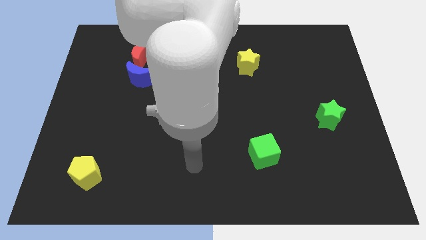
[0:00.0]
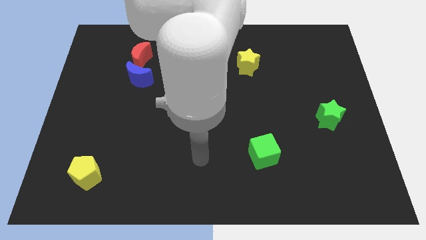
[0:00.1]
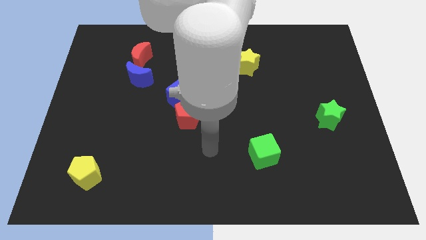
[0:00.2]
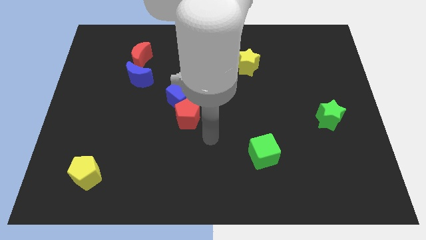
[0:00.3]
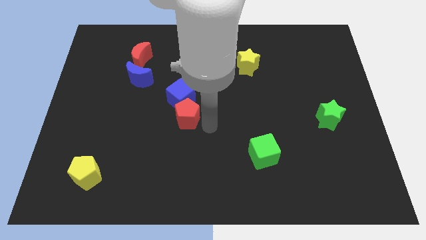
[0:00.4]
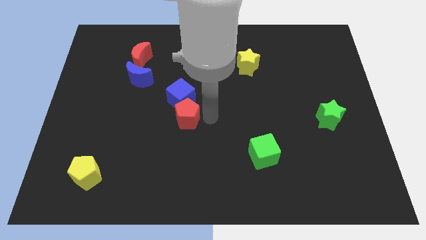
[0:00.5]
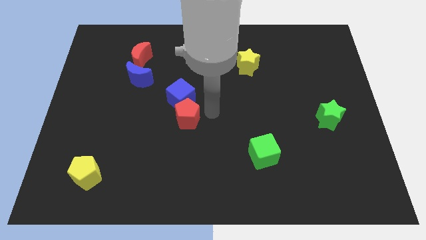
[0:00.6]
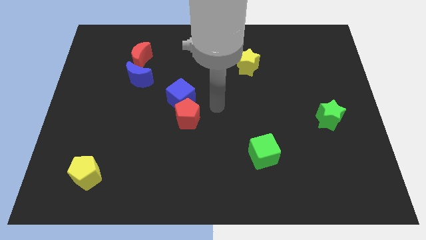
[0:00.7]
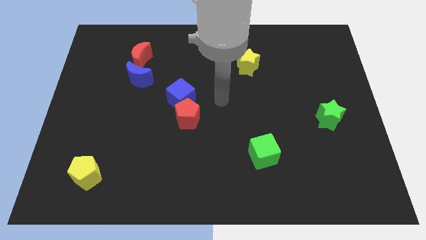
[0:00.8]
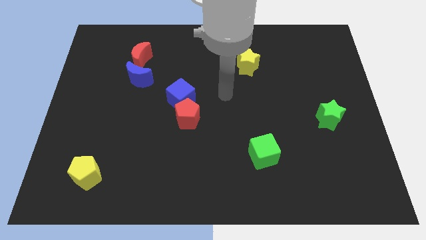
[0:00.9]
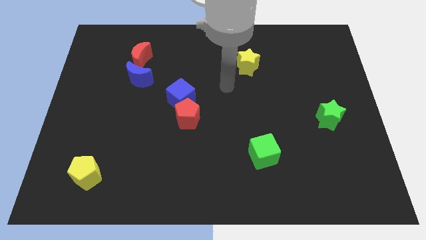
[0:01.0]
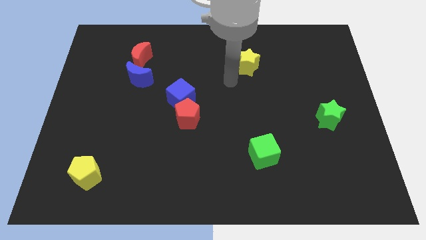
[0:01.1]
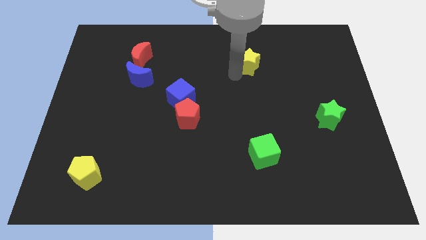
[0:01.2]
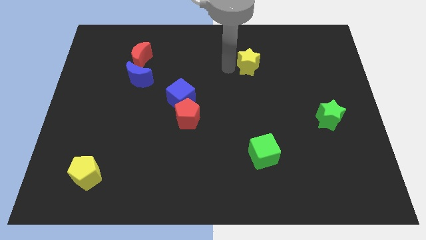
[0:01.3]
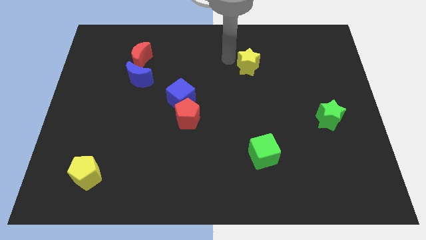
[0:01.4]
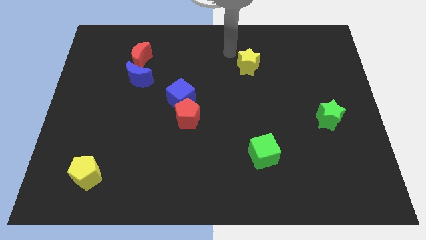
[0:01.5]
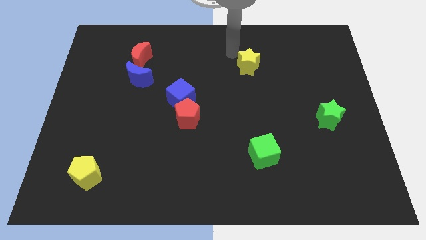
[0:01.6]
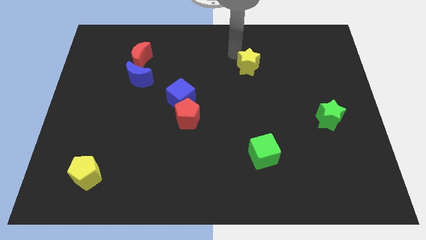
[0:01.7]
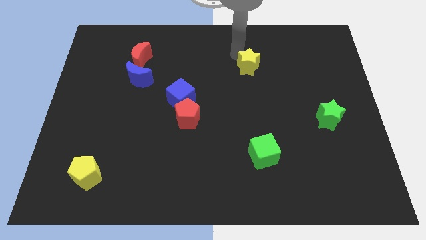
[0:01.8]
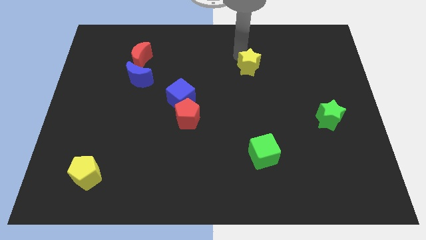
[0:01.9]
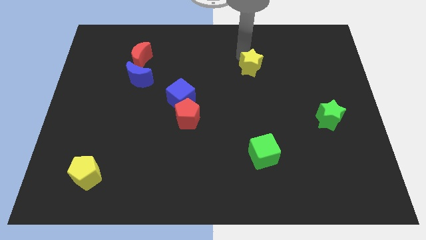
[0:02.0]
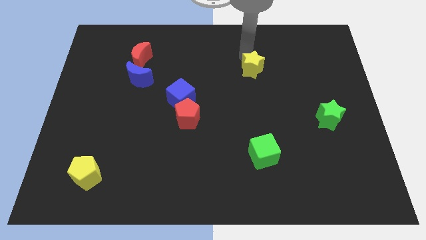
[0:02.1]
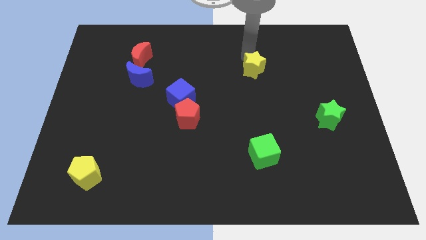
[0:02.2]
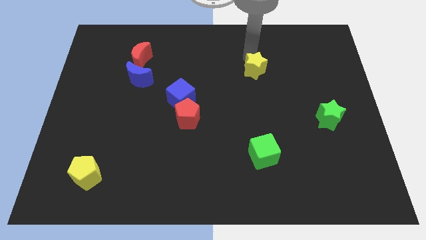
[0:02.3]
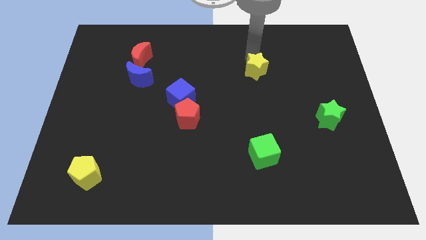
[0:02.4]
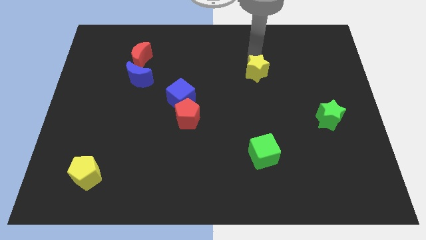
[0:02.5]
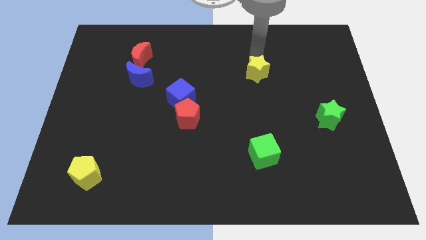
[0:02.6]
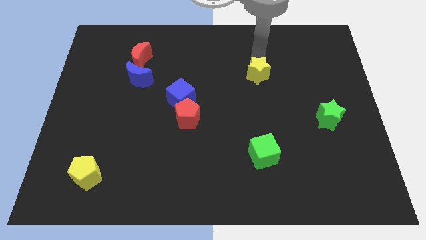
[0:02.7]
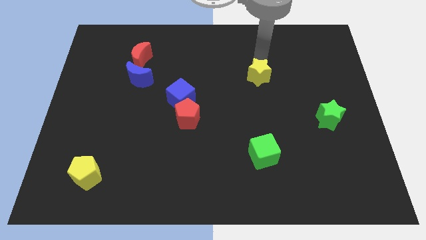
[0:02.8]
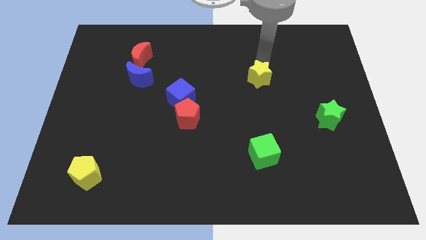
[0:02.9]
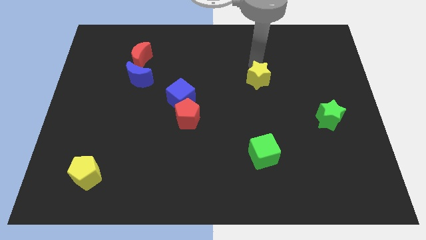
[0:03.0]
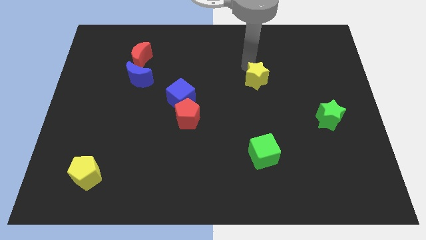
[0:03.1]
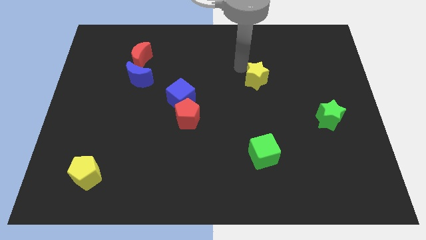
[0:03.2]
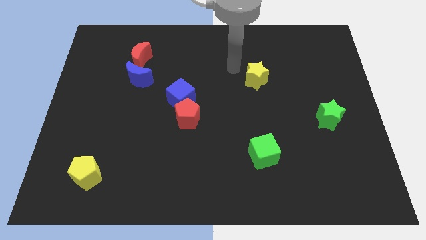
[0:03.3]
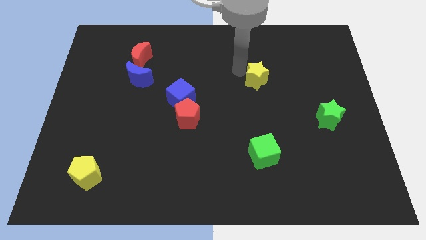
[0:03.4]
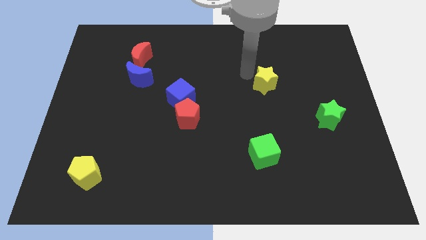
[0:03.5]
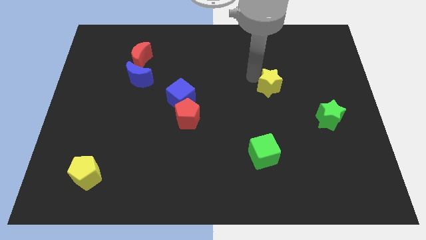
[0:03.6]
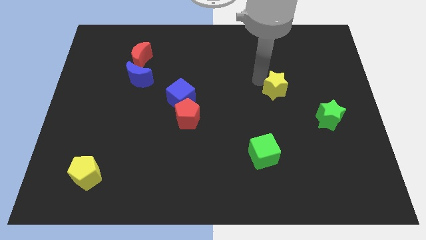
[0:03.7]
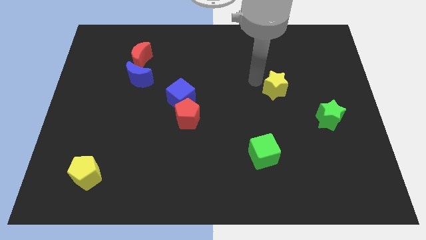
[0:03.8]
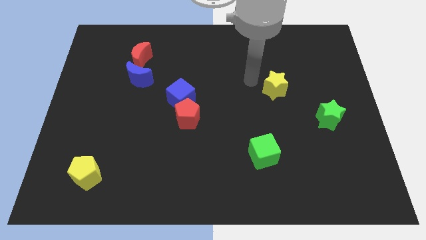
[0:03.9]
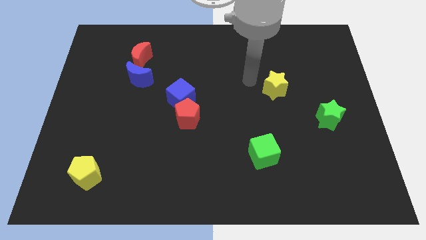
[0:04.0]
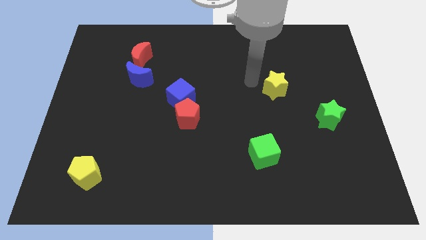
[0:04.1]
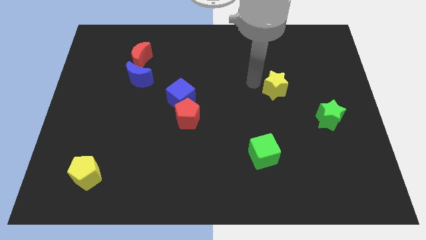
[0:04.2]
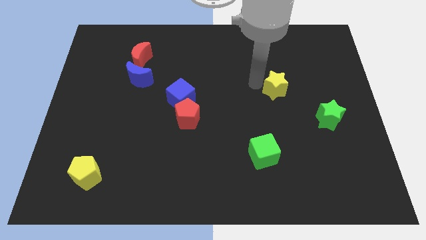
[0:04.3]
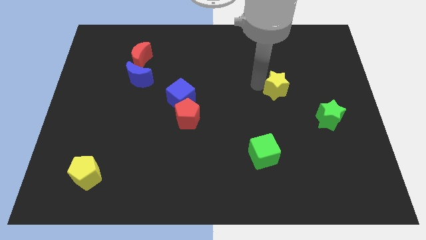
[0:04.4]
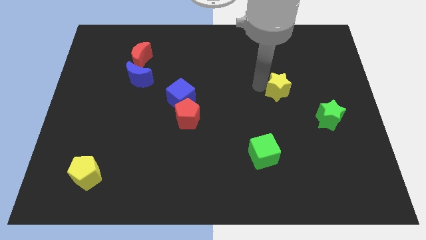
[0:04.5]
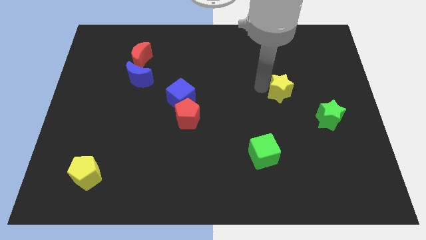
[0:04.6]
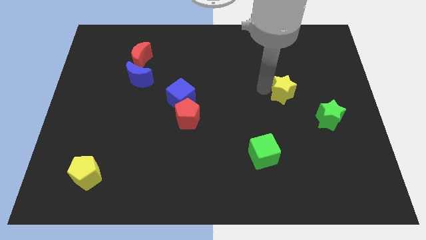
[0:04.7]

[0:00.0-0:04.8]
move the yellow star diagonally up and to the left of the green star

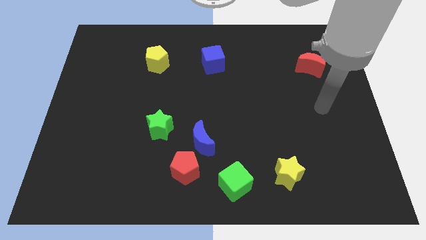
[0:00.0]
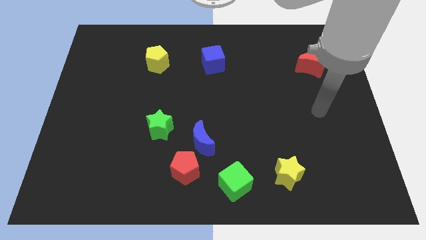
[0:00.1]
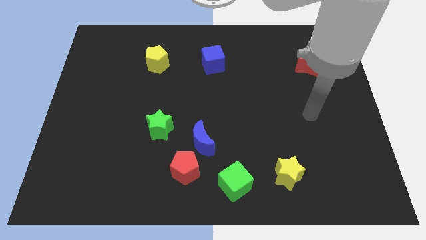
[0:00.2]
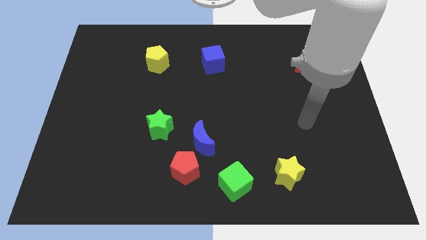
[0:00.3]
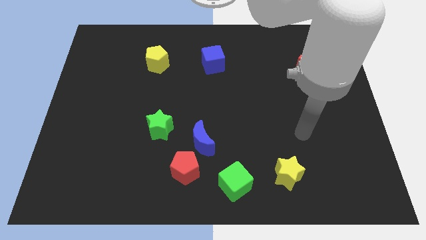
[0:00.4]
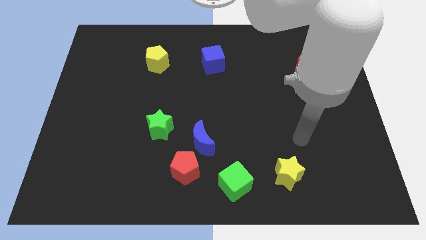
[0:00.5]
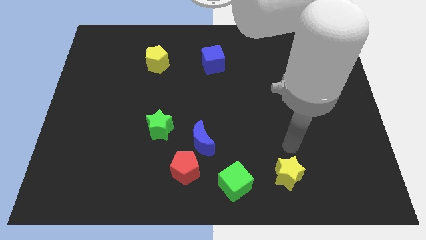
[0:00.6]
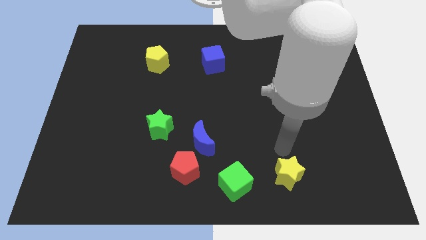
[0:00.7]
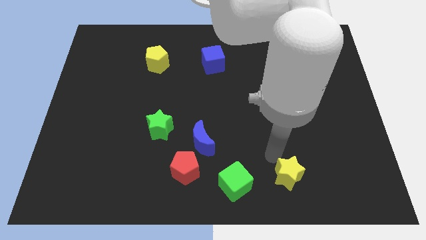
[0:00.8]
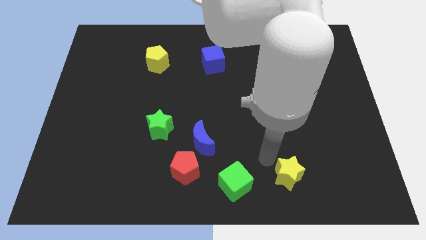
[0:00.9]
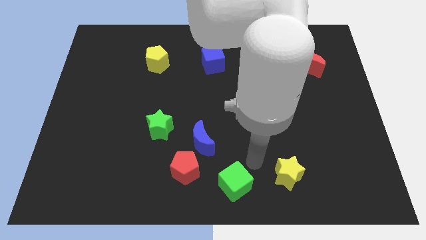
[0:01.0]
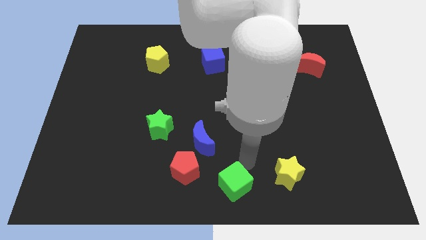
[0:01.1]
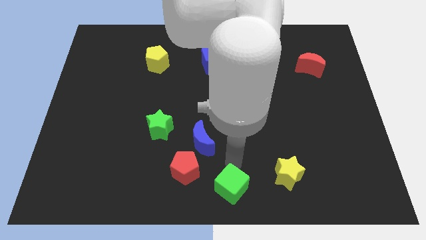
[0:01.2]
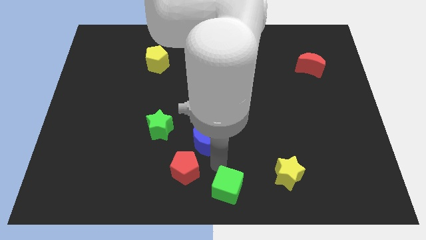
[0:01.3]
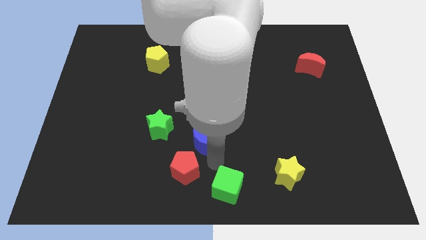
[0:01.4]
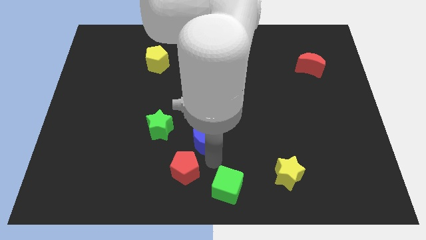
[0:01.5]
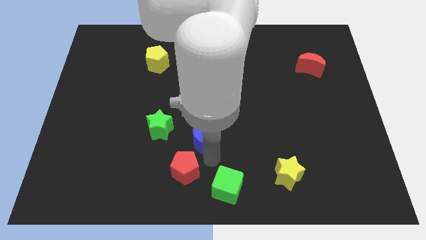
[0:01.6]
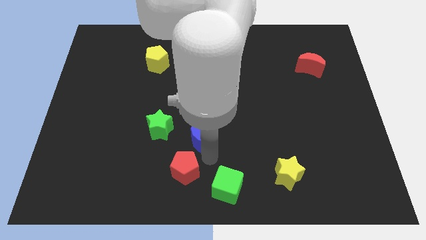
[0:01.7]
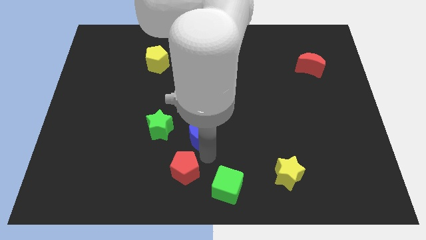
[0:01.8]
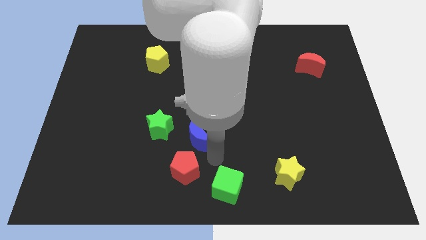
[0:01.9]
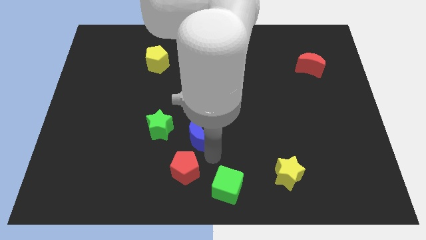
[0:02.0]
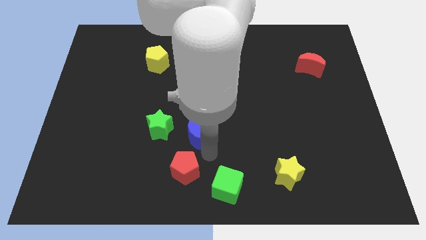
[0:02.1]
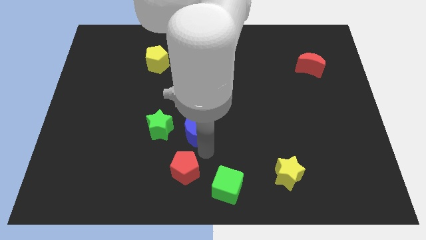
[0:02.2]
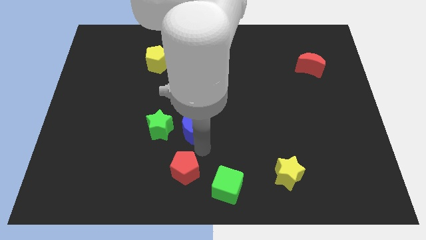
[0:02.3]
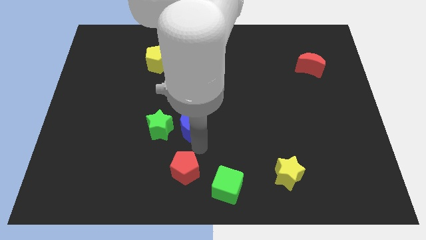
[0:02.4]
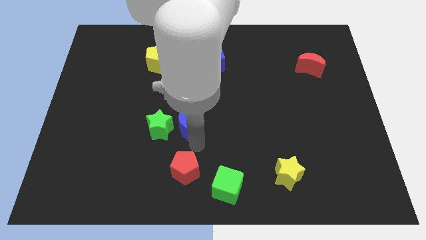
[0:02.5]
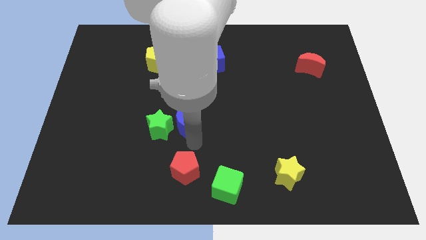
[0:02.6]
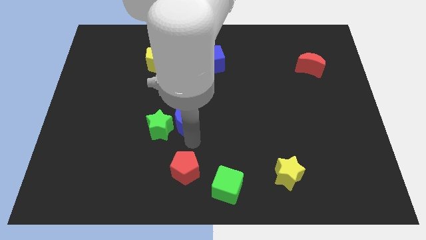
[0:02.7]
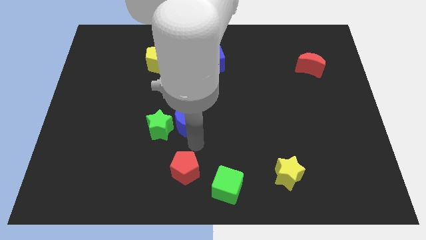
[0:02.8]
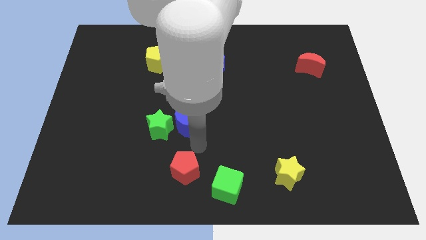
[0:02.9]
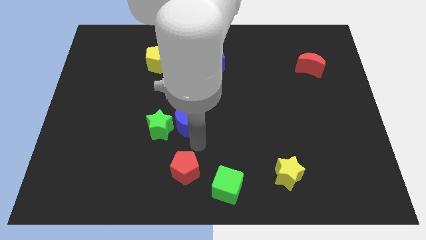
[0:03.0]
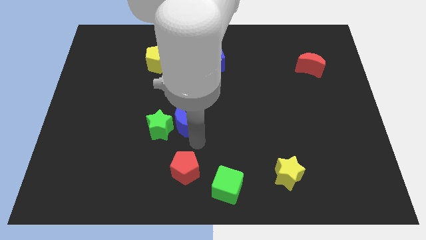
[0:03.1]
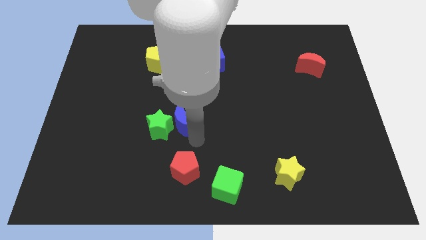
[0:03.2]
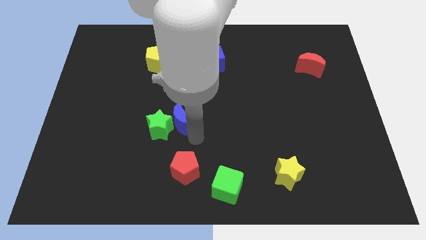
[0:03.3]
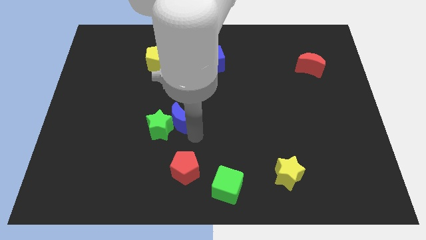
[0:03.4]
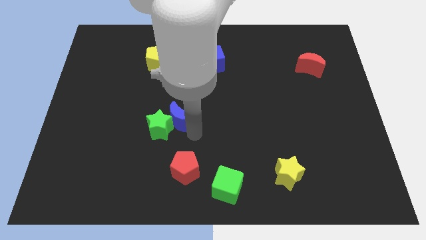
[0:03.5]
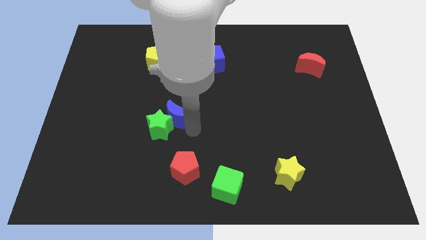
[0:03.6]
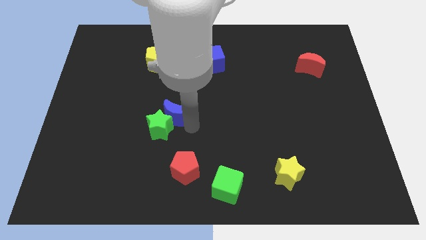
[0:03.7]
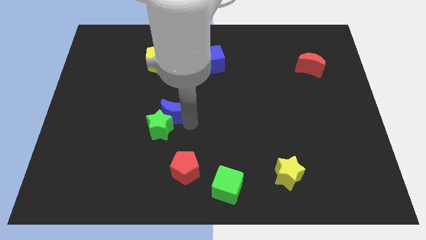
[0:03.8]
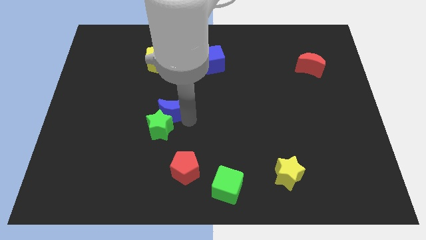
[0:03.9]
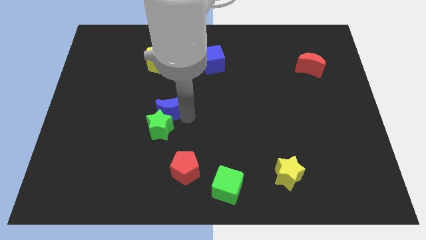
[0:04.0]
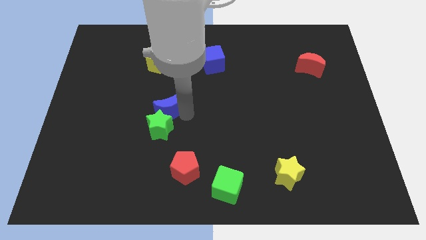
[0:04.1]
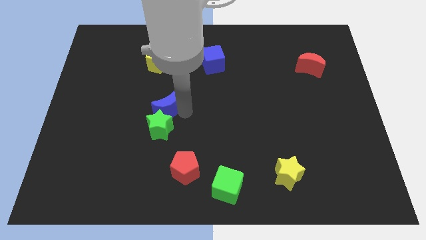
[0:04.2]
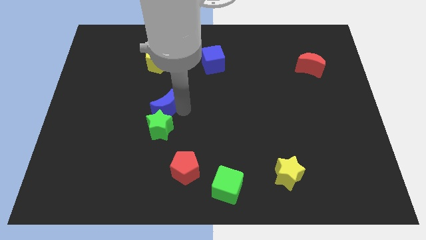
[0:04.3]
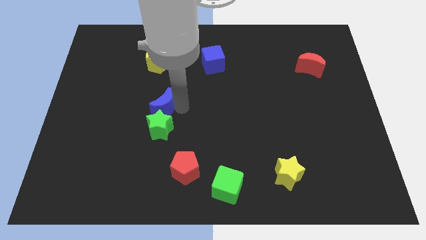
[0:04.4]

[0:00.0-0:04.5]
put the blue moon below the yellow pentagon
